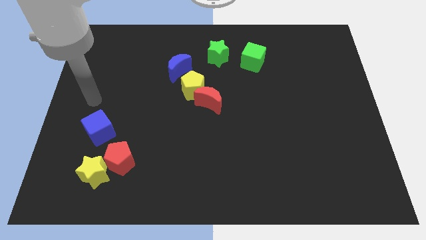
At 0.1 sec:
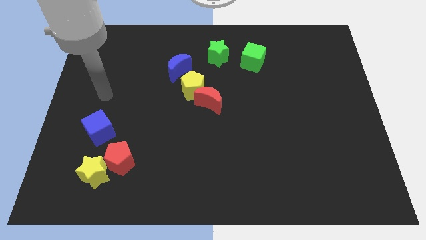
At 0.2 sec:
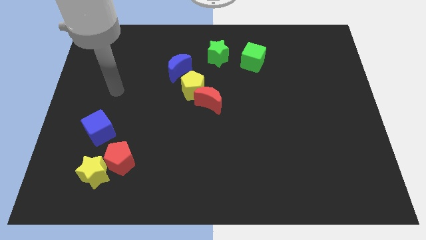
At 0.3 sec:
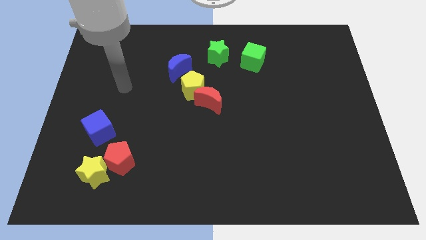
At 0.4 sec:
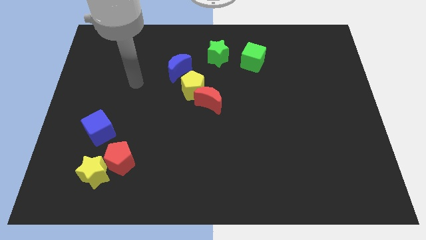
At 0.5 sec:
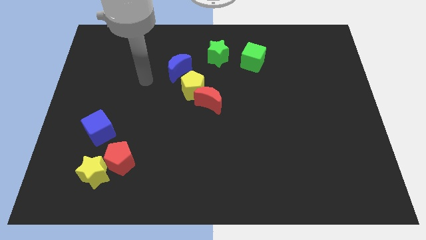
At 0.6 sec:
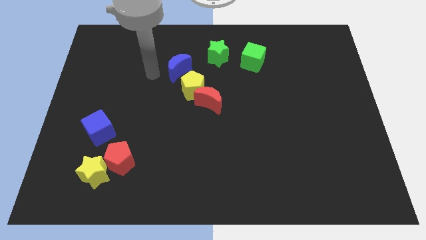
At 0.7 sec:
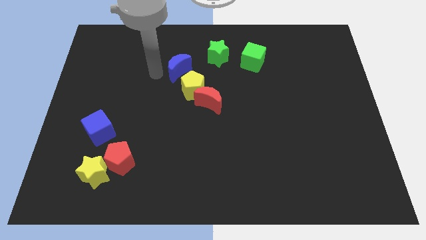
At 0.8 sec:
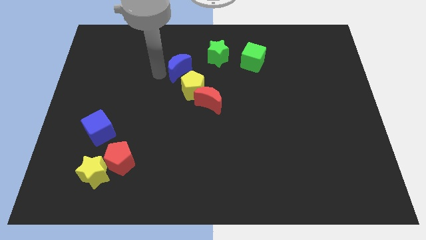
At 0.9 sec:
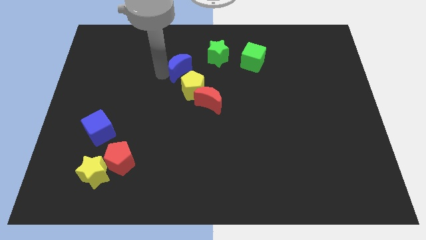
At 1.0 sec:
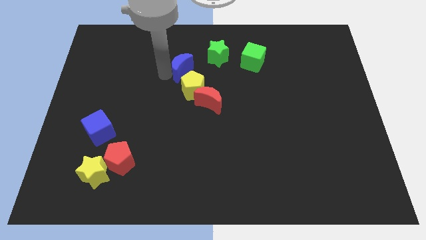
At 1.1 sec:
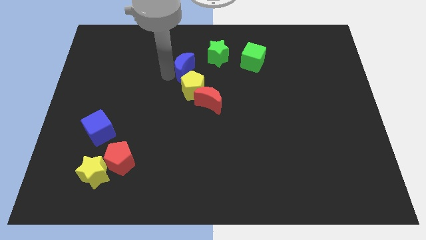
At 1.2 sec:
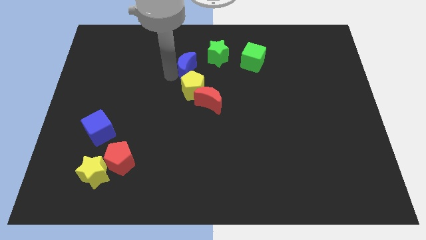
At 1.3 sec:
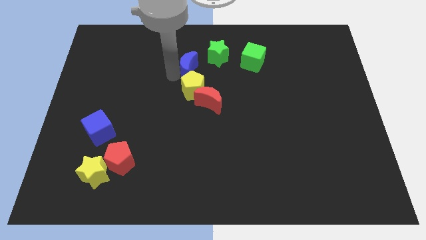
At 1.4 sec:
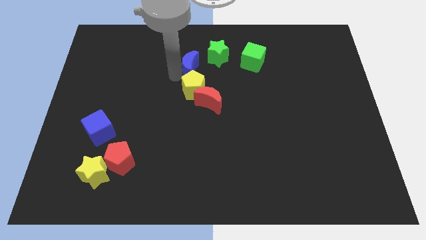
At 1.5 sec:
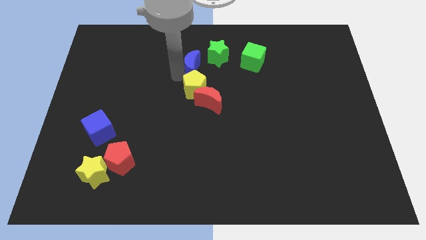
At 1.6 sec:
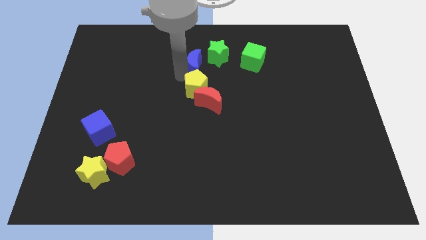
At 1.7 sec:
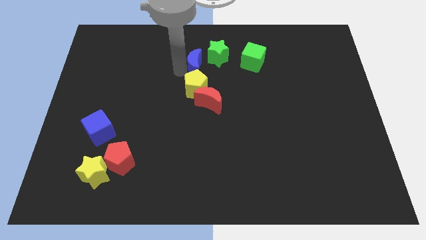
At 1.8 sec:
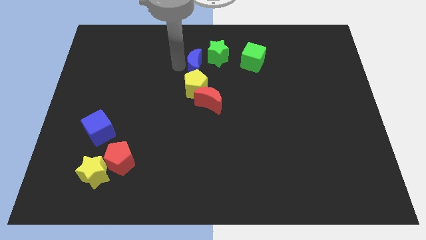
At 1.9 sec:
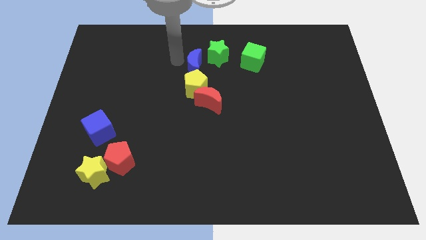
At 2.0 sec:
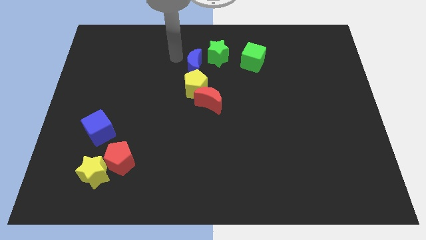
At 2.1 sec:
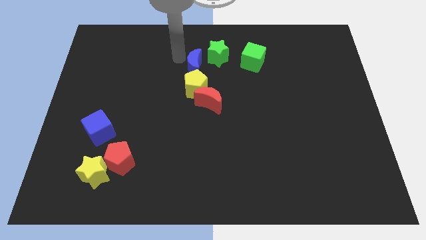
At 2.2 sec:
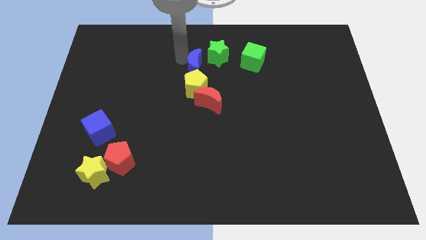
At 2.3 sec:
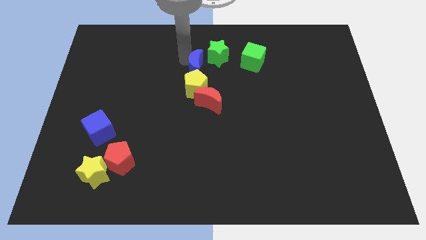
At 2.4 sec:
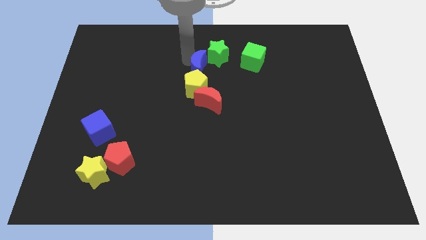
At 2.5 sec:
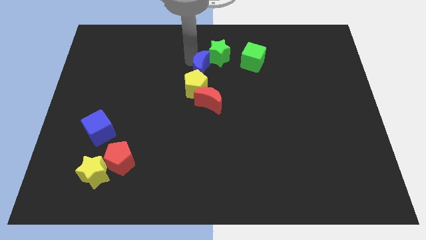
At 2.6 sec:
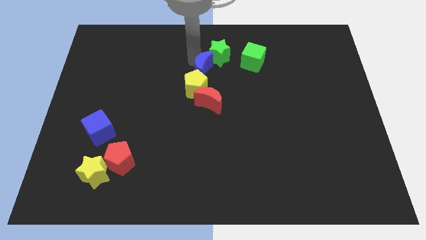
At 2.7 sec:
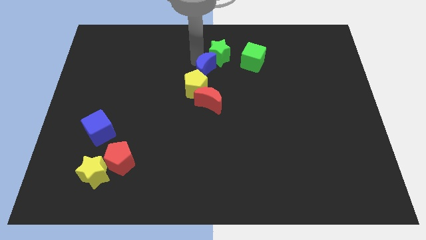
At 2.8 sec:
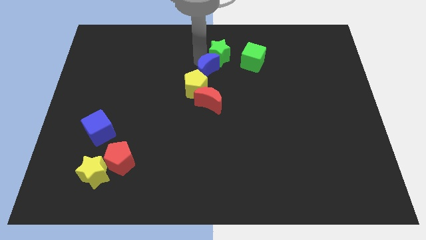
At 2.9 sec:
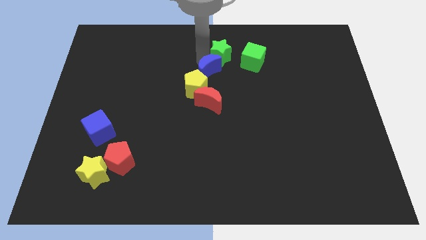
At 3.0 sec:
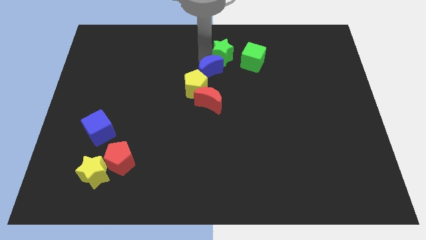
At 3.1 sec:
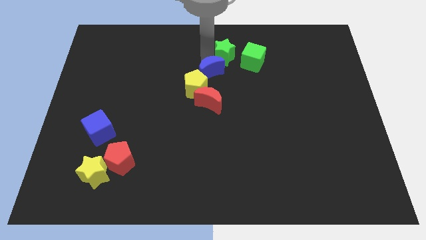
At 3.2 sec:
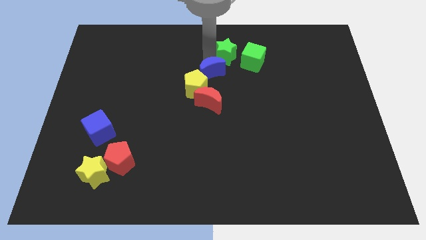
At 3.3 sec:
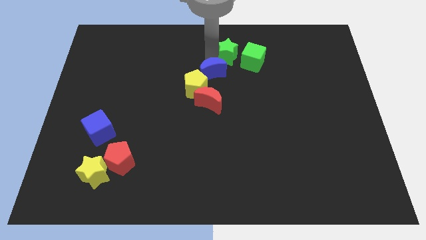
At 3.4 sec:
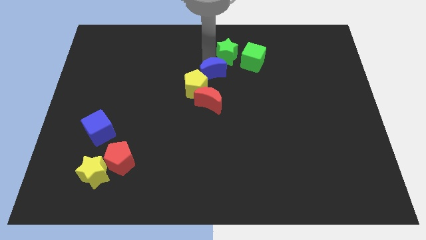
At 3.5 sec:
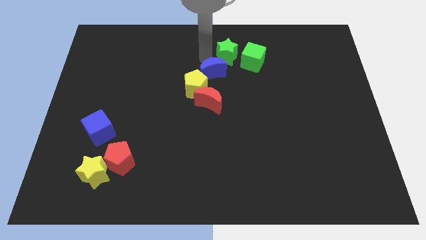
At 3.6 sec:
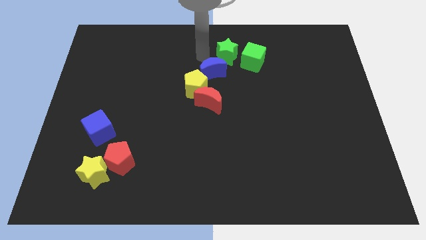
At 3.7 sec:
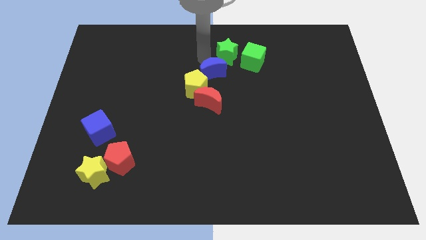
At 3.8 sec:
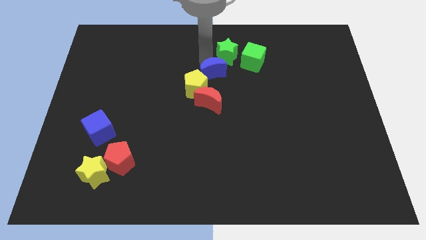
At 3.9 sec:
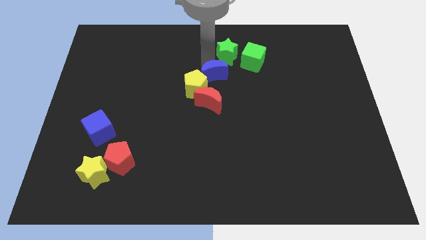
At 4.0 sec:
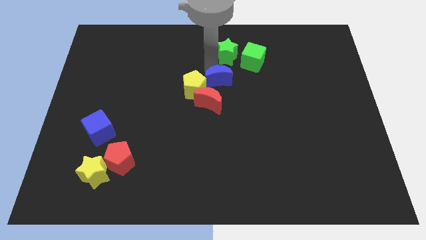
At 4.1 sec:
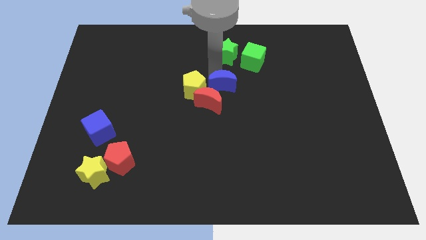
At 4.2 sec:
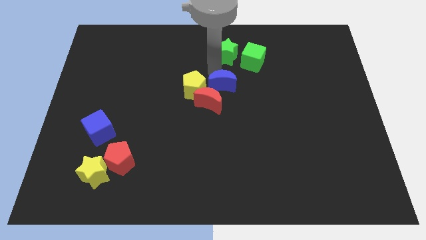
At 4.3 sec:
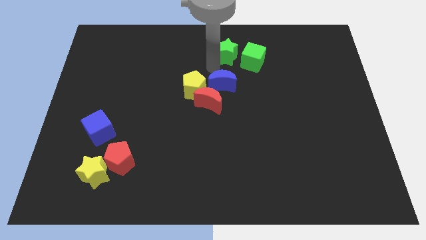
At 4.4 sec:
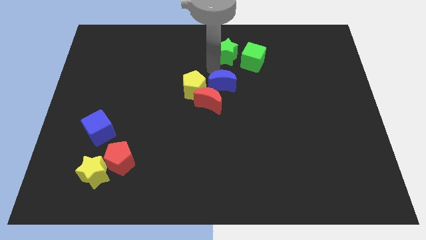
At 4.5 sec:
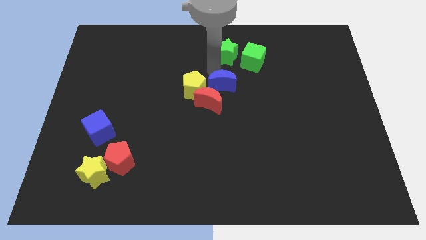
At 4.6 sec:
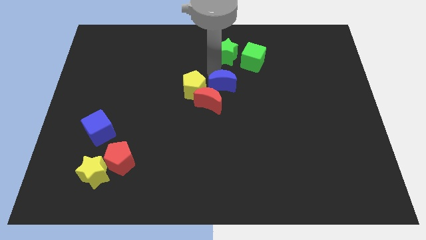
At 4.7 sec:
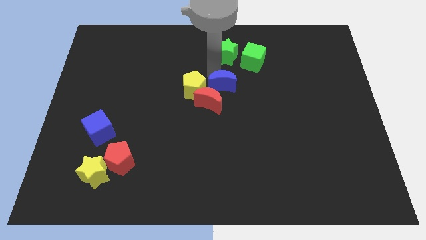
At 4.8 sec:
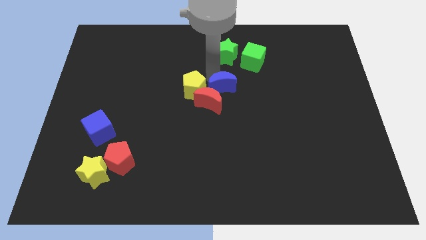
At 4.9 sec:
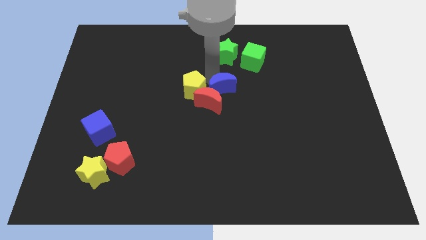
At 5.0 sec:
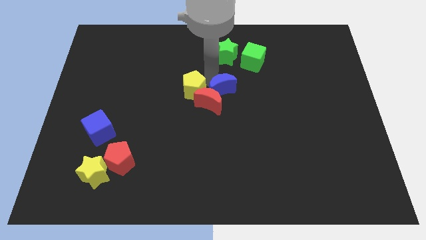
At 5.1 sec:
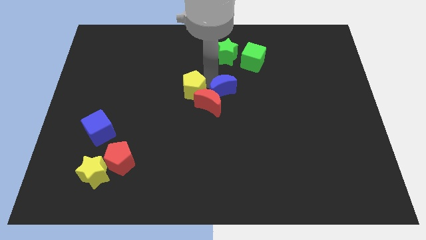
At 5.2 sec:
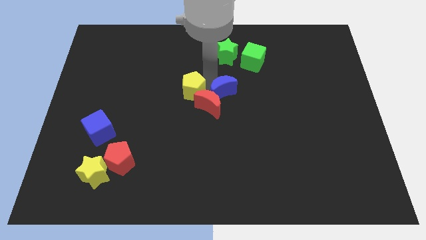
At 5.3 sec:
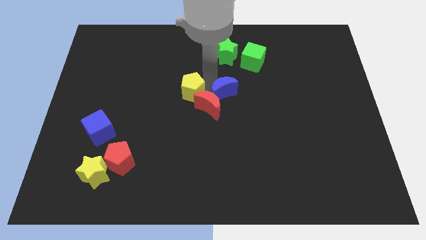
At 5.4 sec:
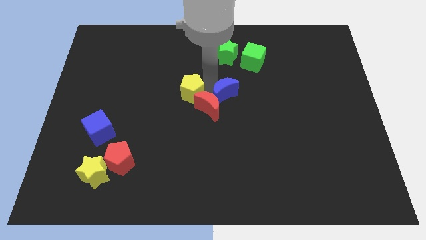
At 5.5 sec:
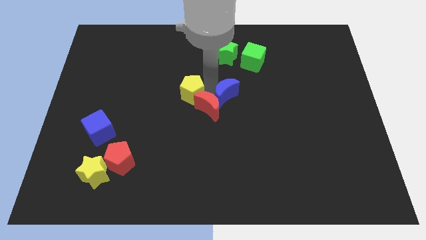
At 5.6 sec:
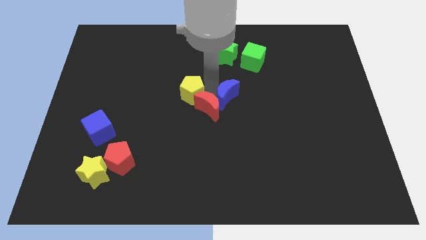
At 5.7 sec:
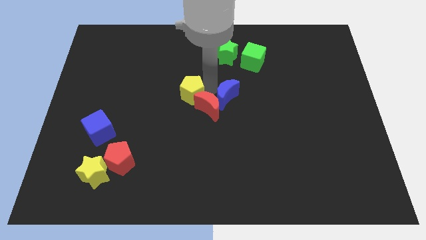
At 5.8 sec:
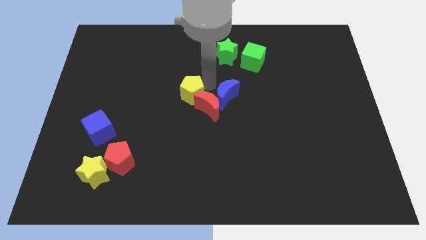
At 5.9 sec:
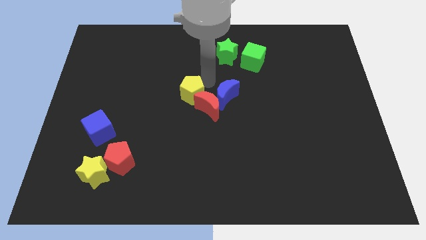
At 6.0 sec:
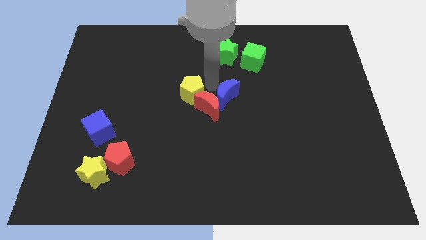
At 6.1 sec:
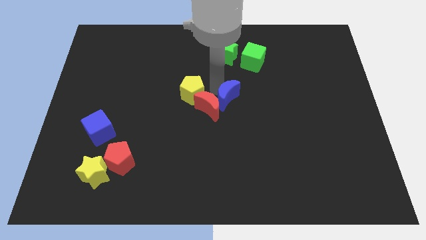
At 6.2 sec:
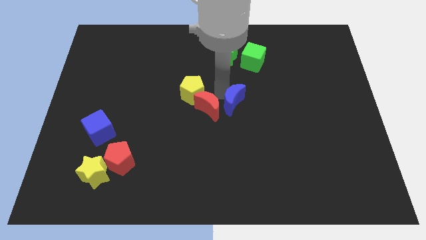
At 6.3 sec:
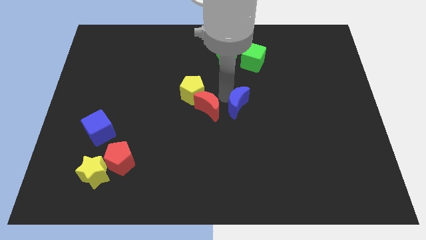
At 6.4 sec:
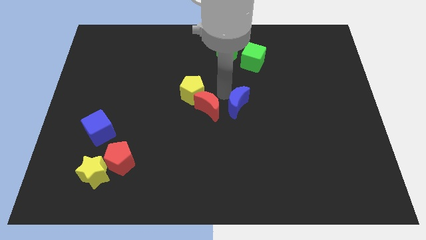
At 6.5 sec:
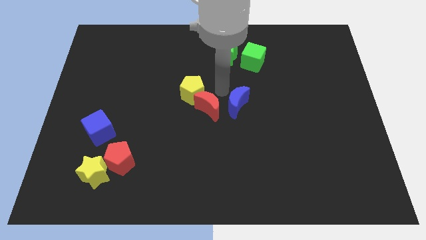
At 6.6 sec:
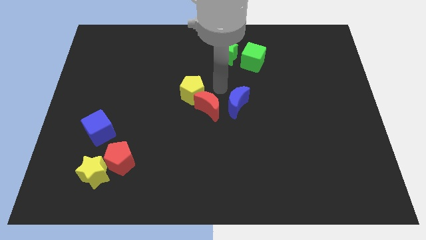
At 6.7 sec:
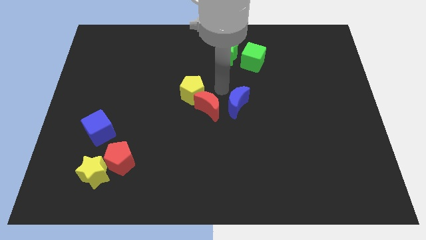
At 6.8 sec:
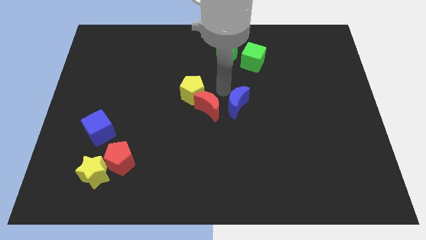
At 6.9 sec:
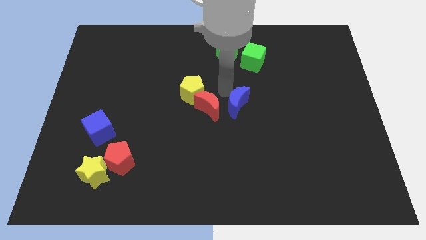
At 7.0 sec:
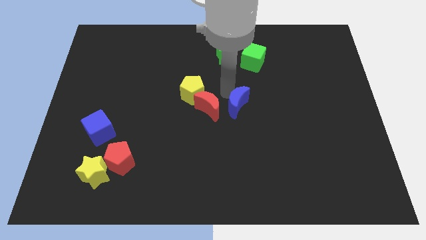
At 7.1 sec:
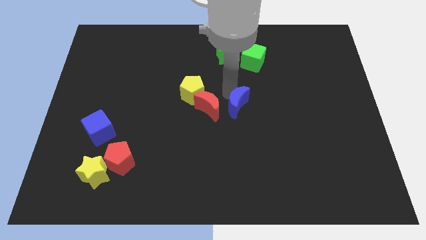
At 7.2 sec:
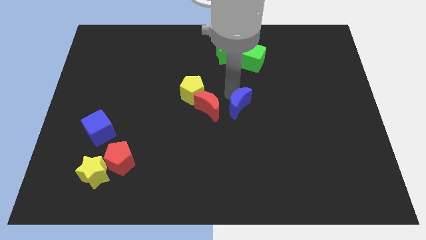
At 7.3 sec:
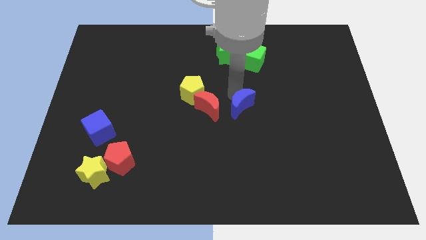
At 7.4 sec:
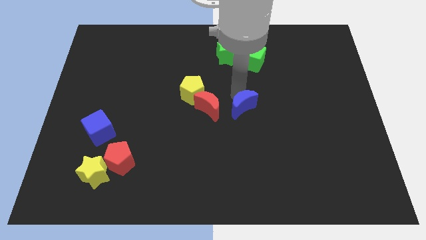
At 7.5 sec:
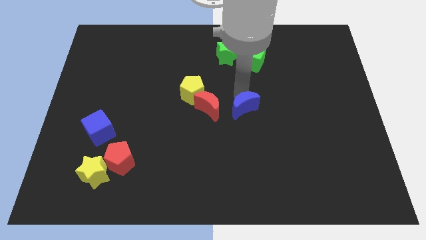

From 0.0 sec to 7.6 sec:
slide the blue moon diagonally down and right

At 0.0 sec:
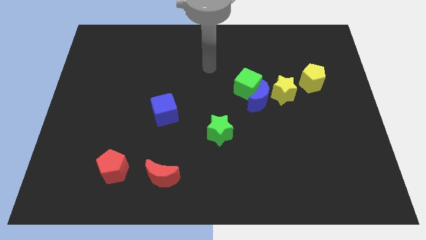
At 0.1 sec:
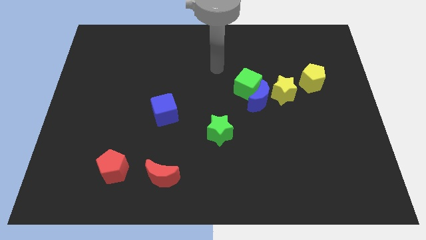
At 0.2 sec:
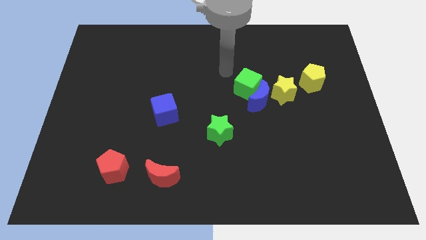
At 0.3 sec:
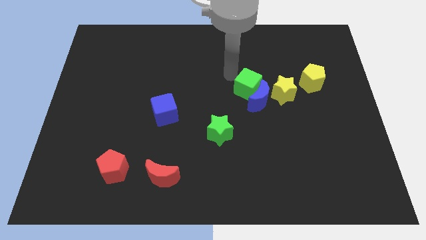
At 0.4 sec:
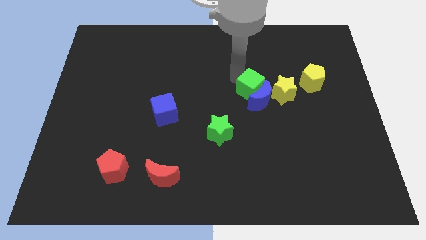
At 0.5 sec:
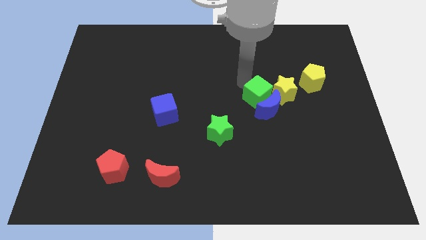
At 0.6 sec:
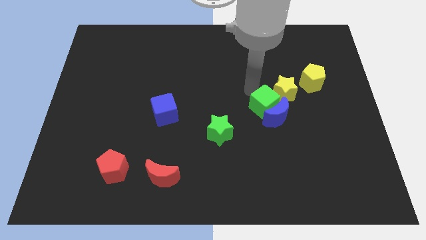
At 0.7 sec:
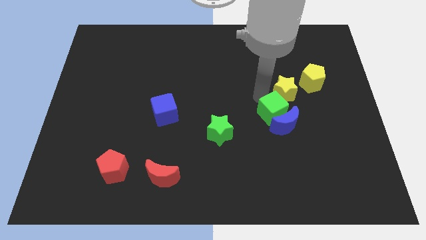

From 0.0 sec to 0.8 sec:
push the blue moon a little downwards and then to the right
